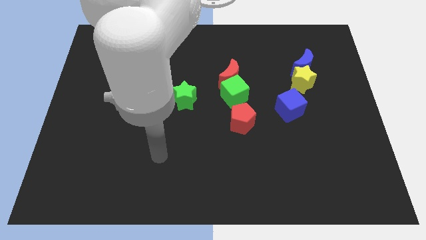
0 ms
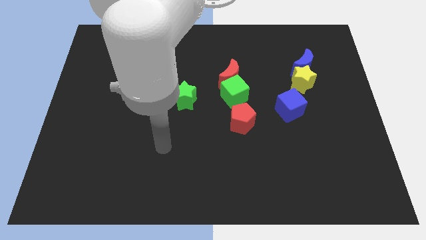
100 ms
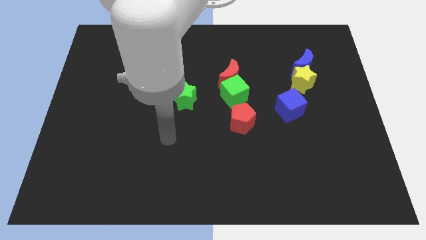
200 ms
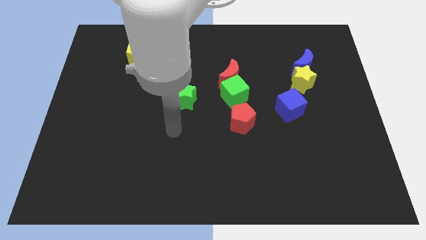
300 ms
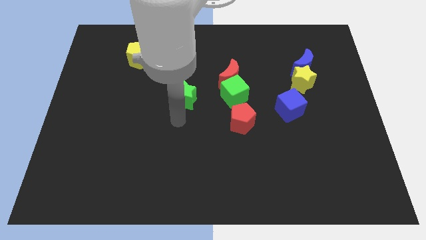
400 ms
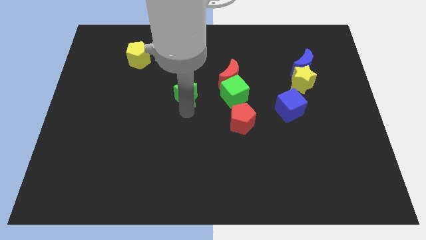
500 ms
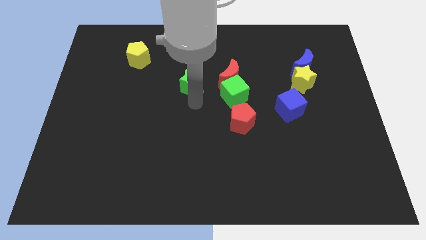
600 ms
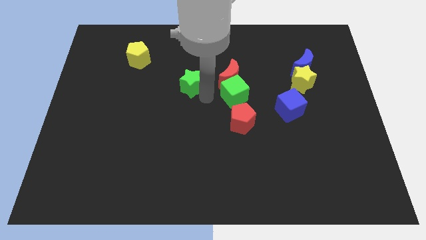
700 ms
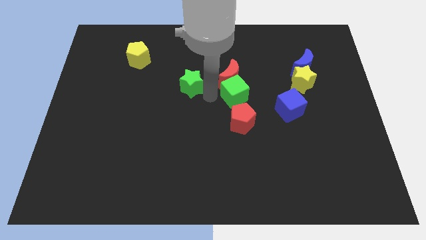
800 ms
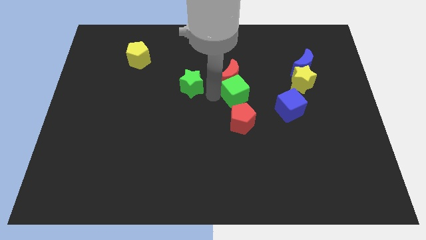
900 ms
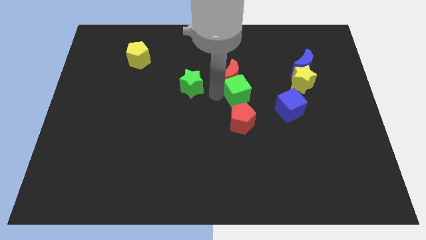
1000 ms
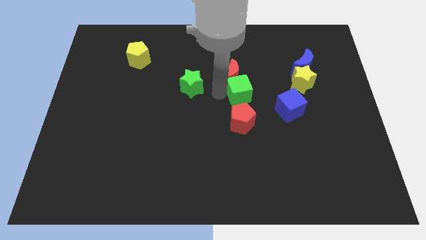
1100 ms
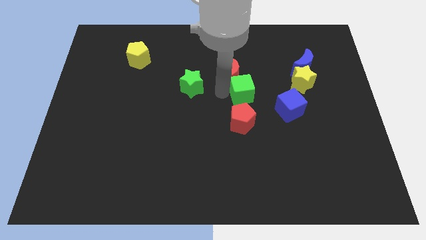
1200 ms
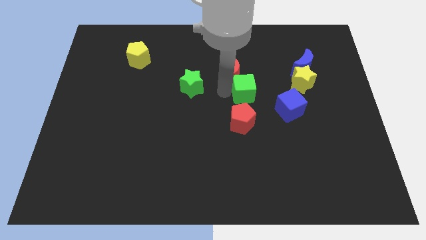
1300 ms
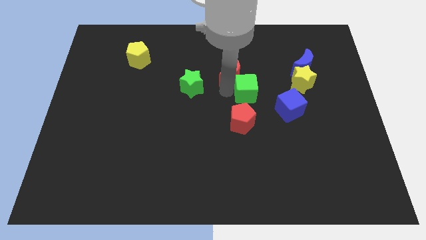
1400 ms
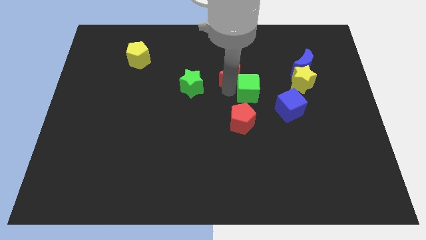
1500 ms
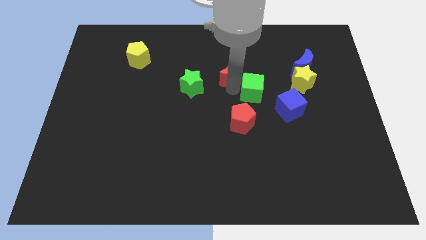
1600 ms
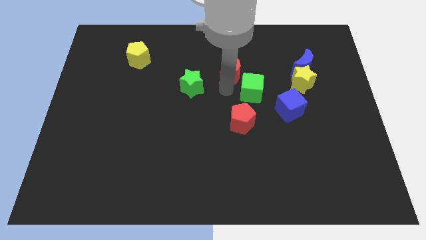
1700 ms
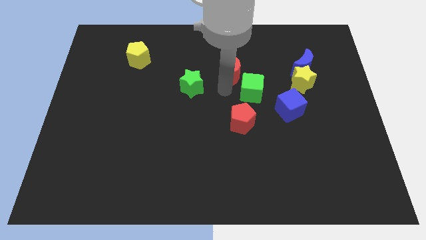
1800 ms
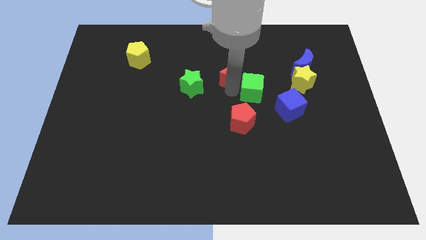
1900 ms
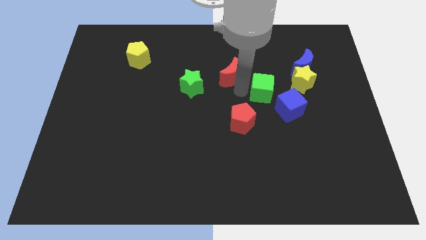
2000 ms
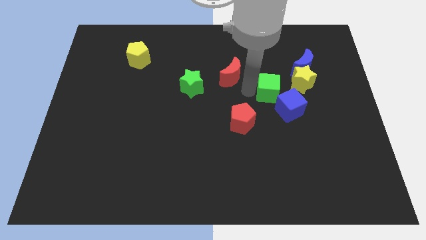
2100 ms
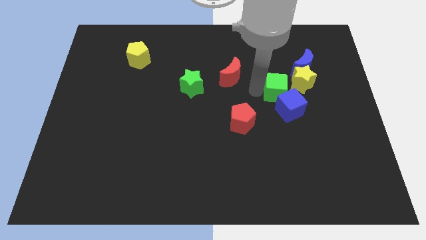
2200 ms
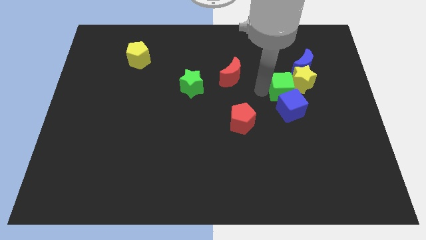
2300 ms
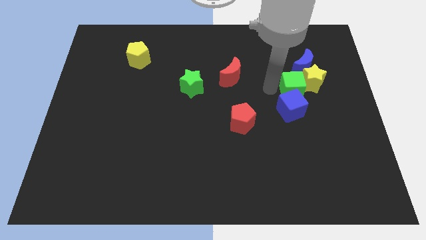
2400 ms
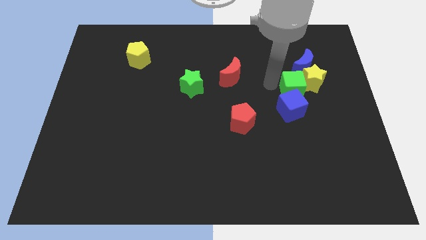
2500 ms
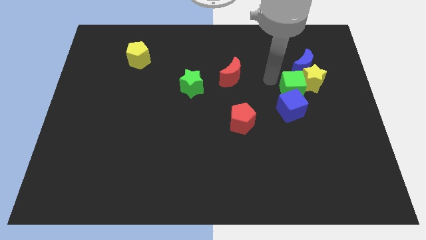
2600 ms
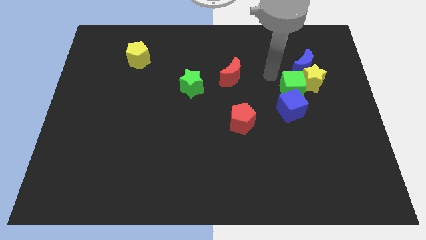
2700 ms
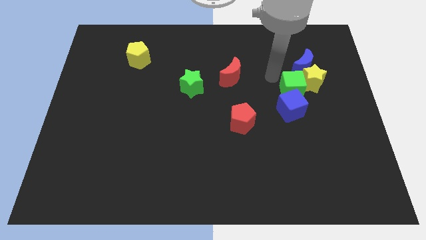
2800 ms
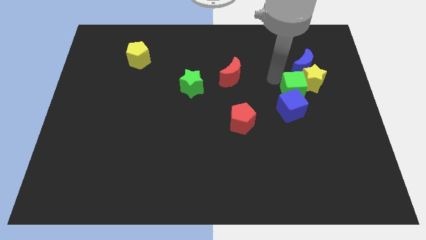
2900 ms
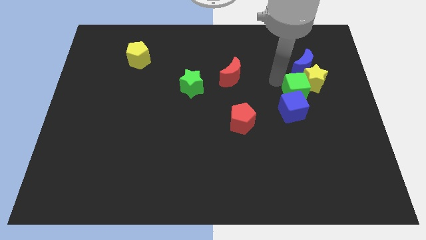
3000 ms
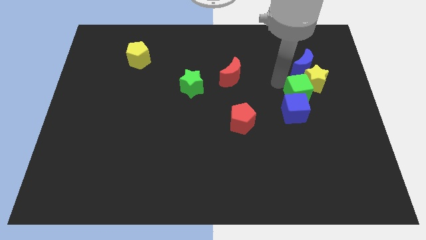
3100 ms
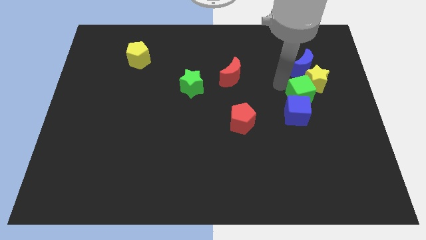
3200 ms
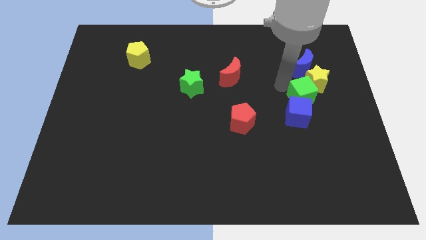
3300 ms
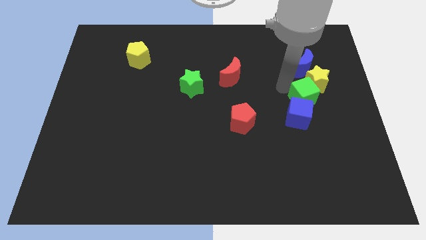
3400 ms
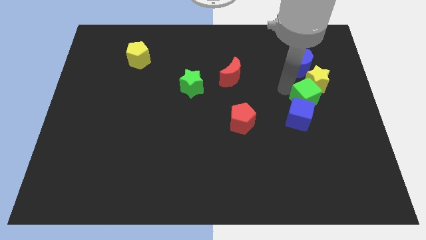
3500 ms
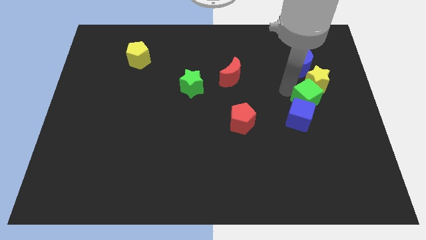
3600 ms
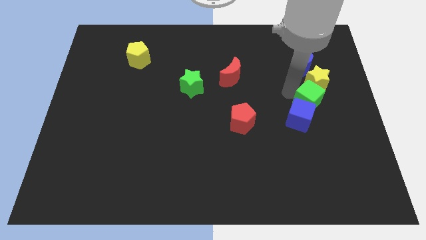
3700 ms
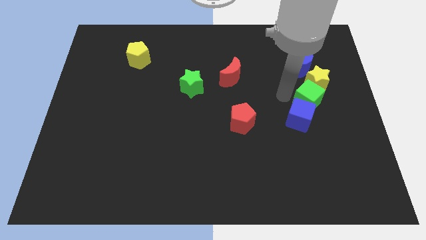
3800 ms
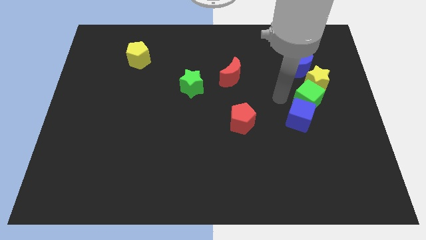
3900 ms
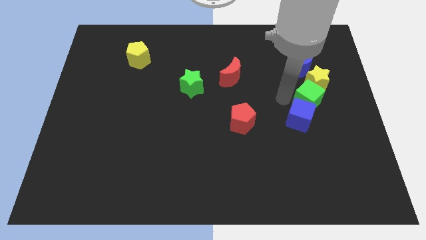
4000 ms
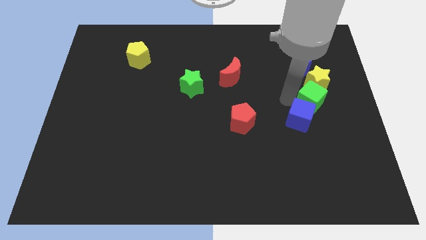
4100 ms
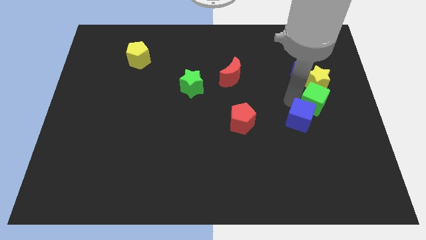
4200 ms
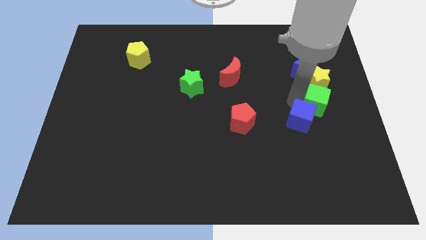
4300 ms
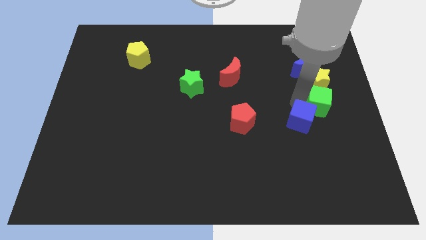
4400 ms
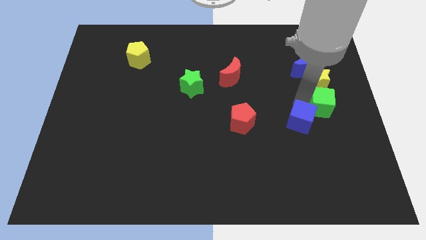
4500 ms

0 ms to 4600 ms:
slide the green cube to the right side

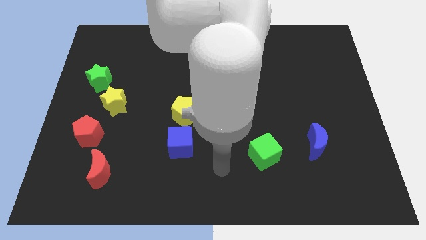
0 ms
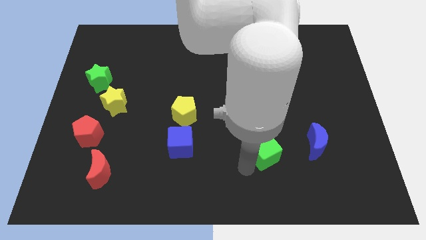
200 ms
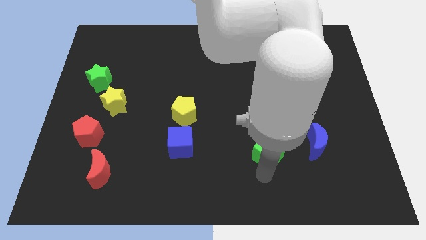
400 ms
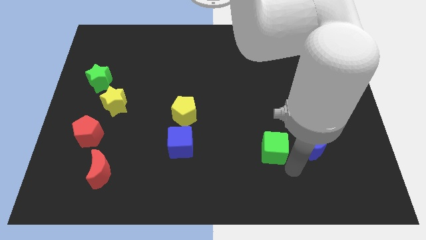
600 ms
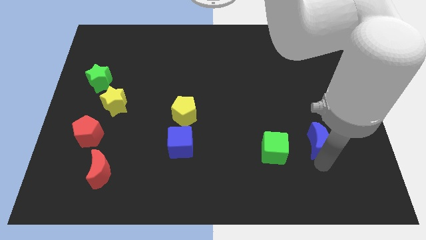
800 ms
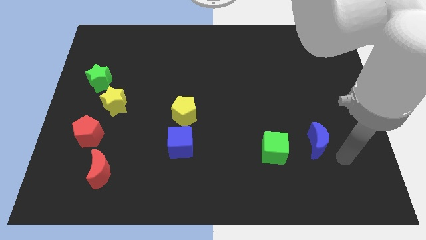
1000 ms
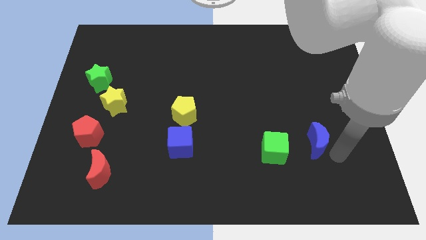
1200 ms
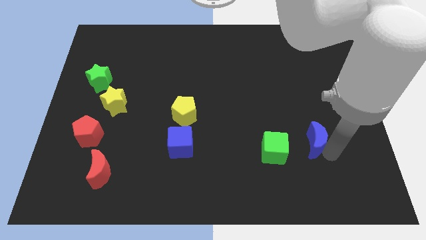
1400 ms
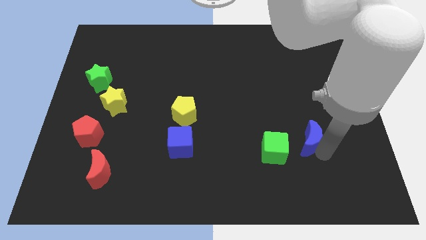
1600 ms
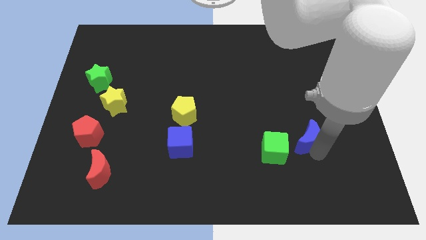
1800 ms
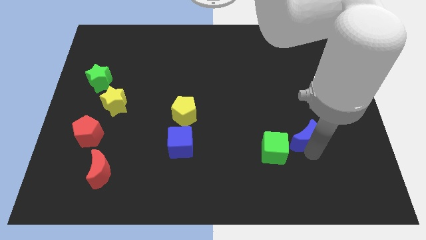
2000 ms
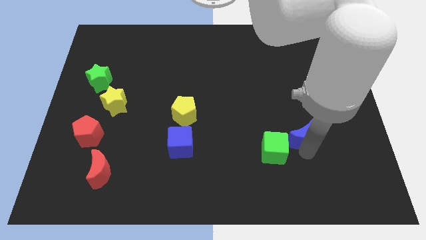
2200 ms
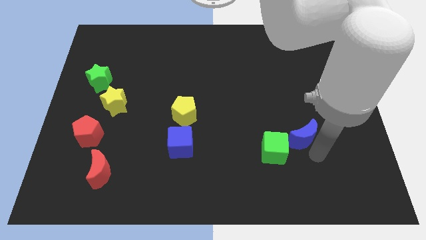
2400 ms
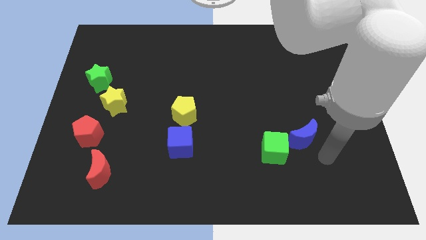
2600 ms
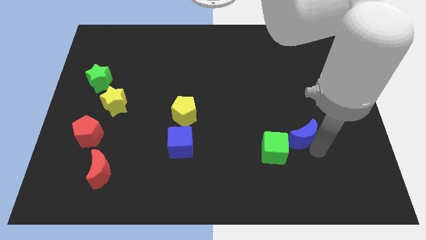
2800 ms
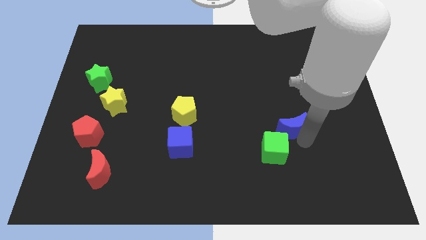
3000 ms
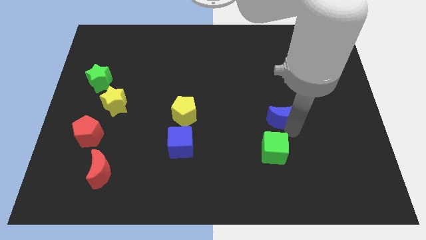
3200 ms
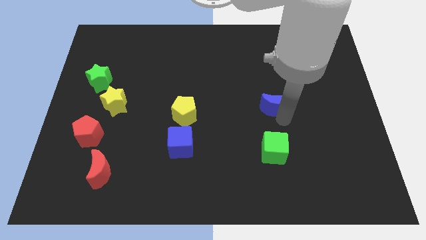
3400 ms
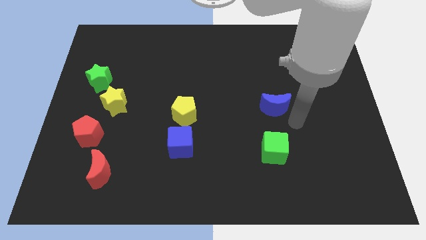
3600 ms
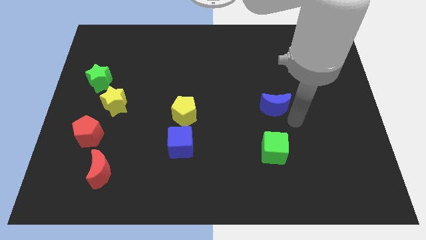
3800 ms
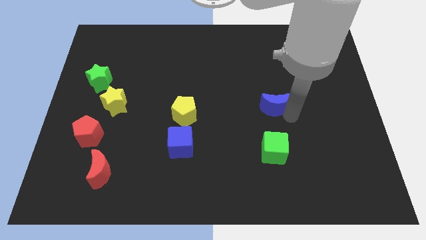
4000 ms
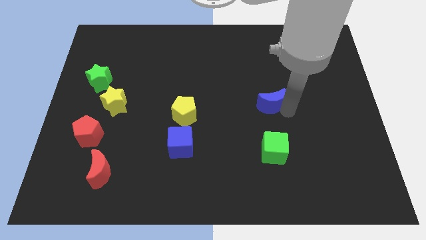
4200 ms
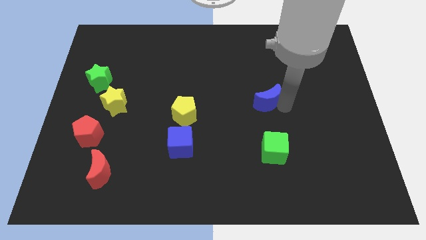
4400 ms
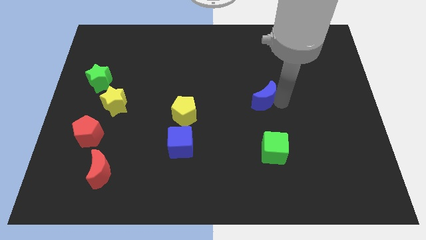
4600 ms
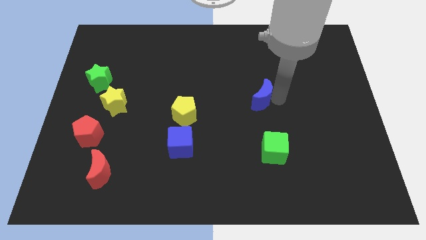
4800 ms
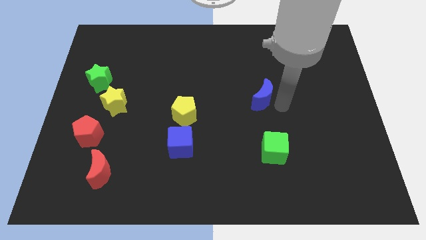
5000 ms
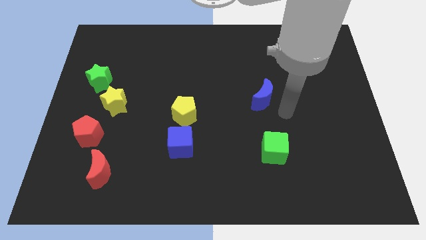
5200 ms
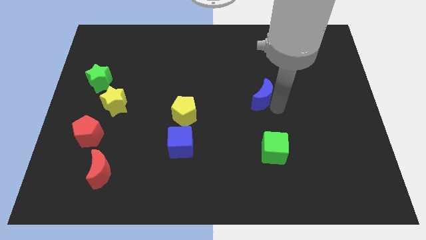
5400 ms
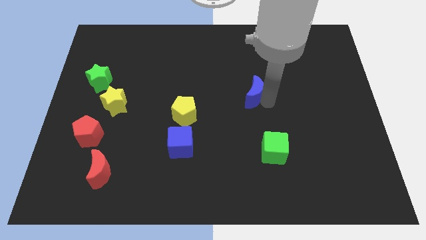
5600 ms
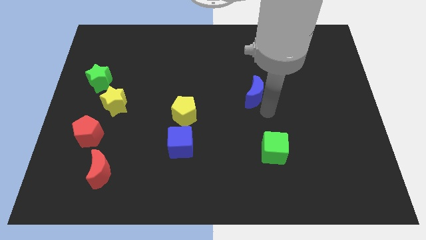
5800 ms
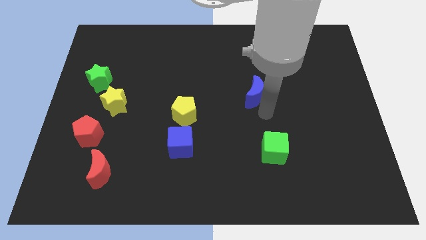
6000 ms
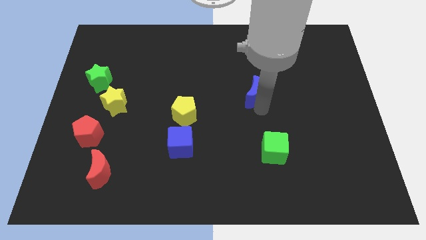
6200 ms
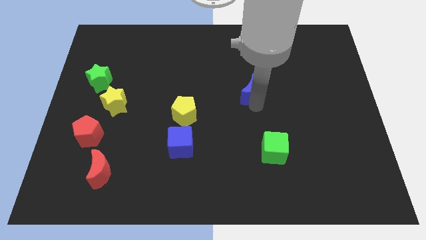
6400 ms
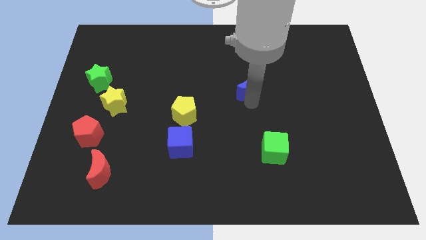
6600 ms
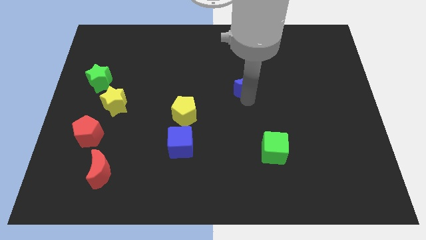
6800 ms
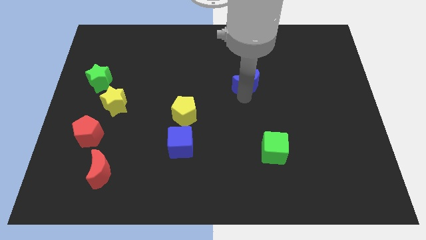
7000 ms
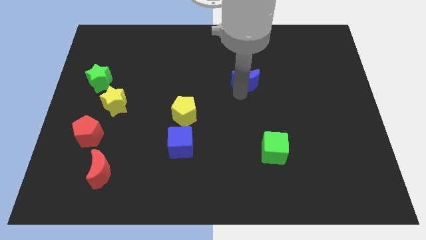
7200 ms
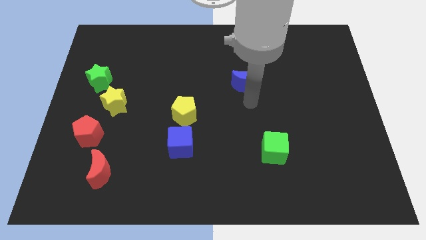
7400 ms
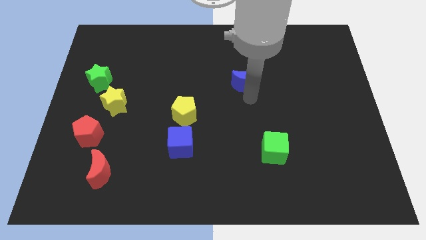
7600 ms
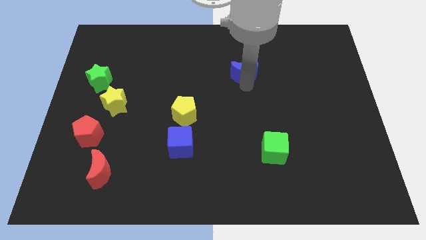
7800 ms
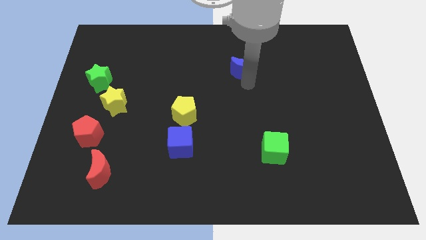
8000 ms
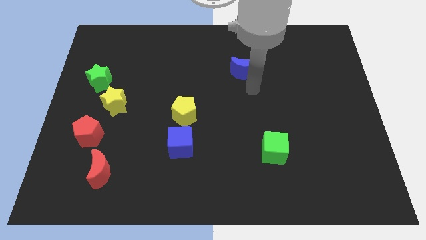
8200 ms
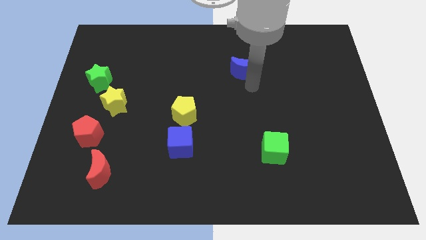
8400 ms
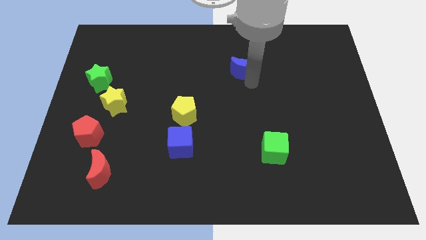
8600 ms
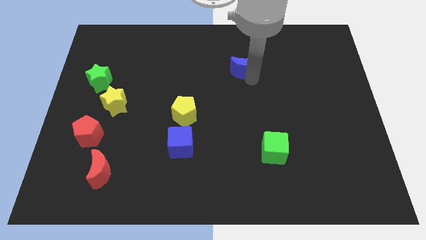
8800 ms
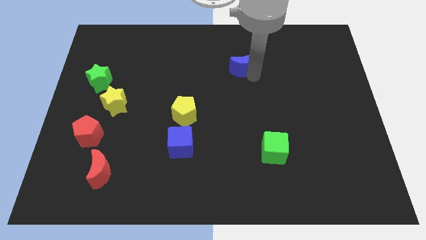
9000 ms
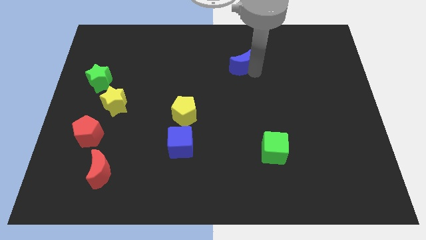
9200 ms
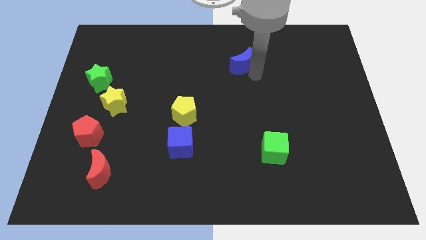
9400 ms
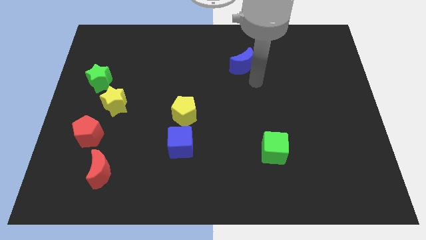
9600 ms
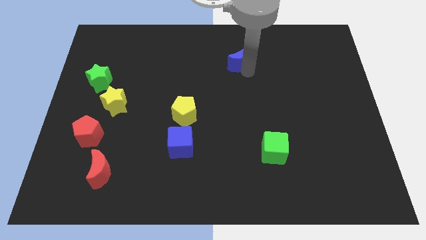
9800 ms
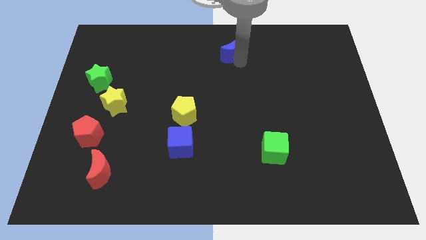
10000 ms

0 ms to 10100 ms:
push the blue moon to the top side
